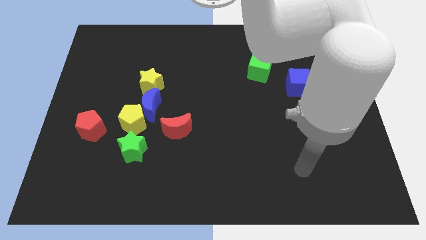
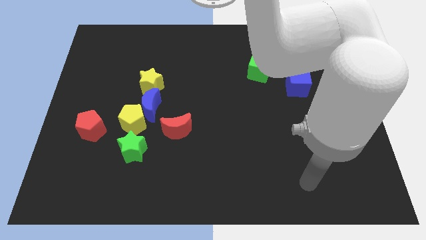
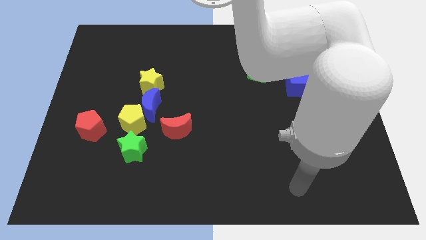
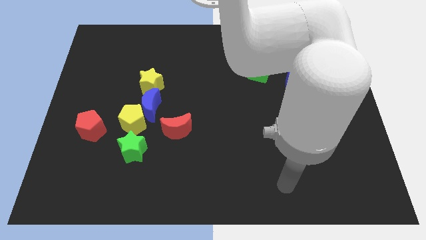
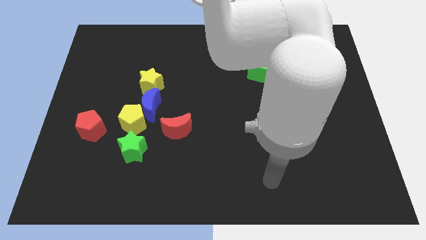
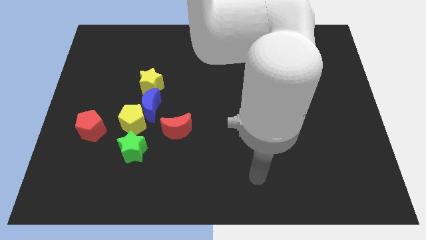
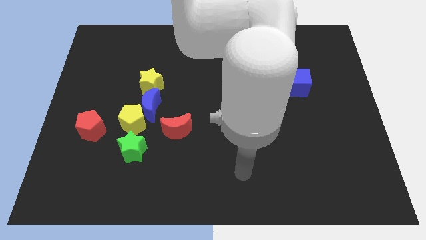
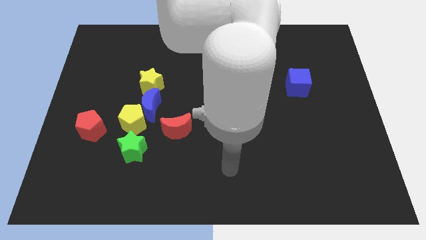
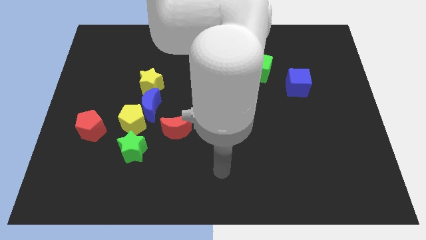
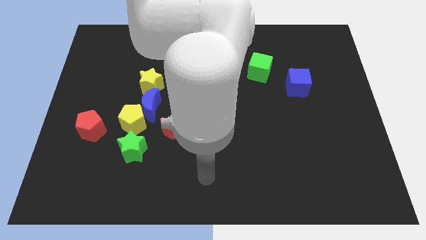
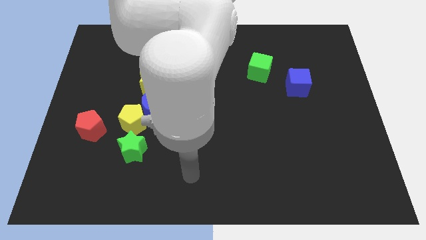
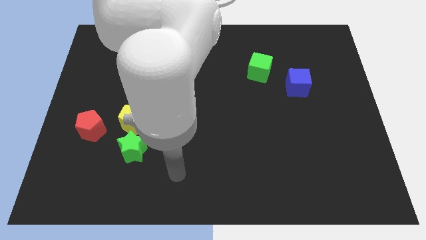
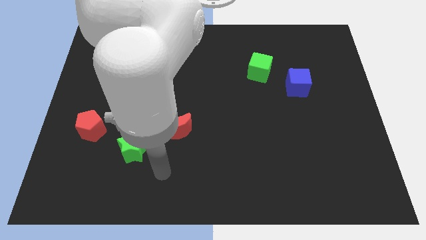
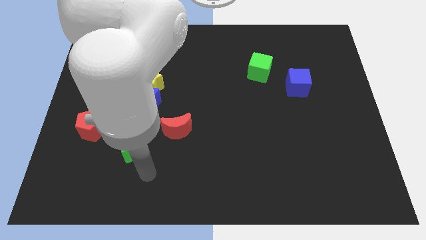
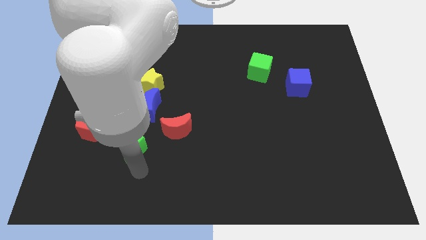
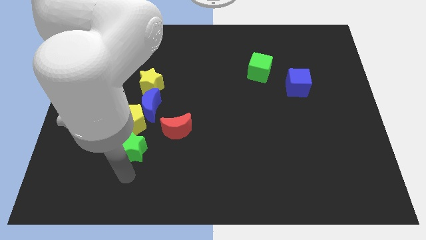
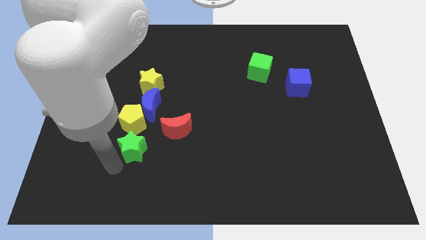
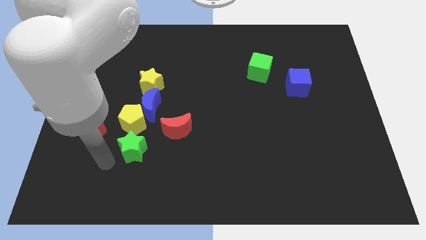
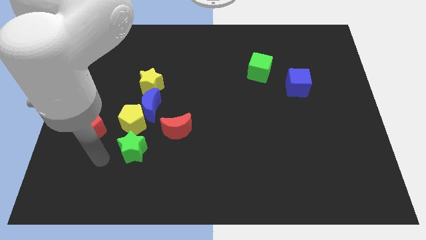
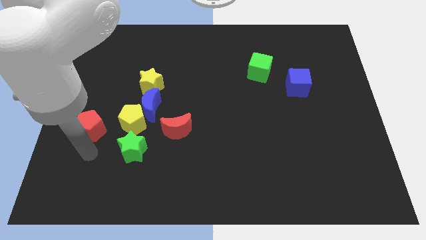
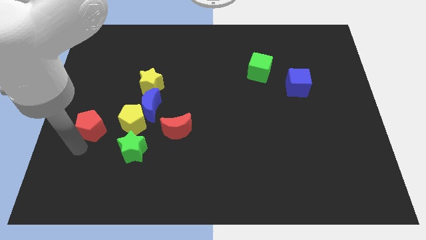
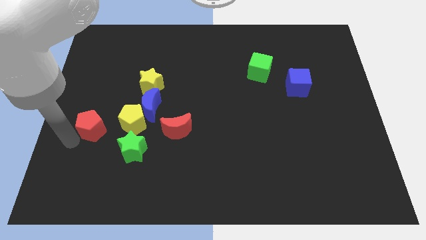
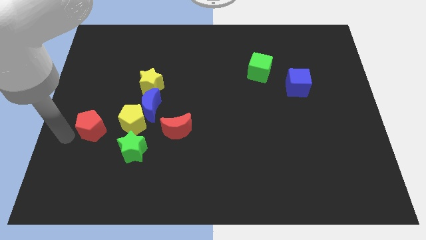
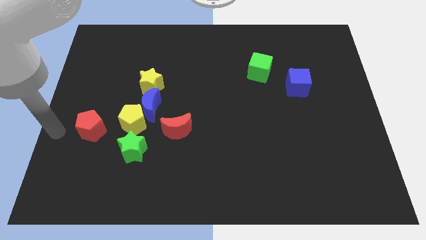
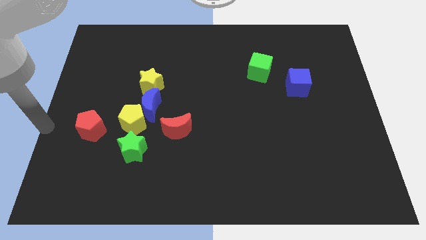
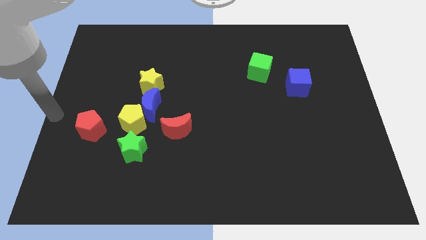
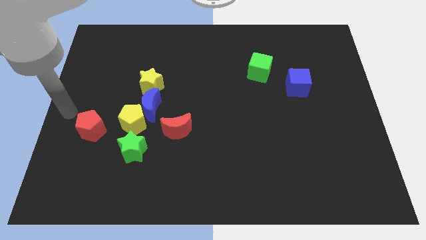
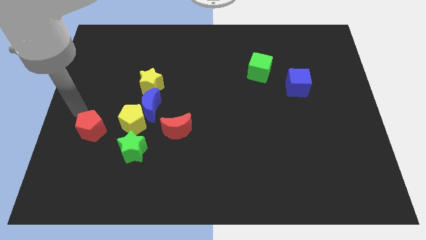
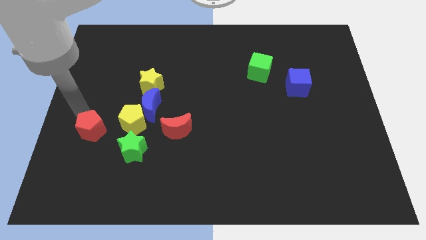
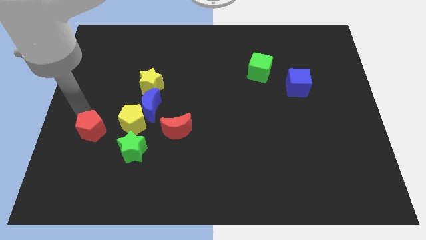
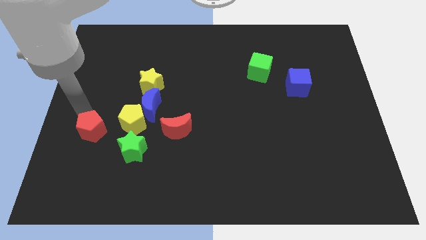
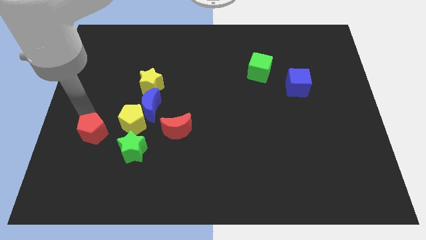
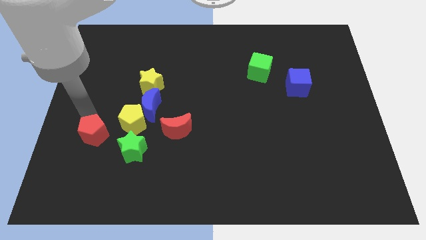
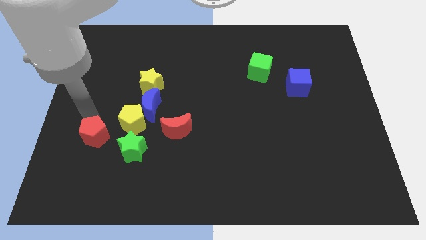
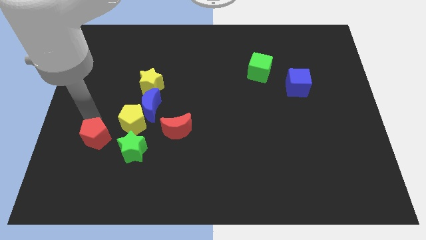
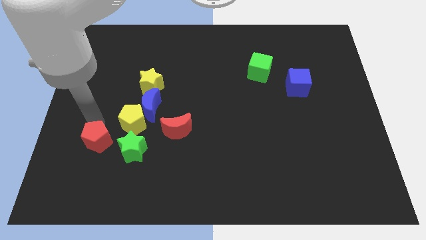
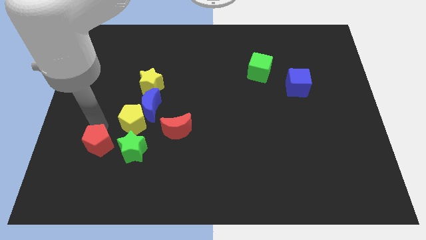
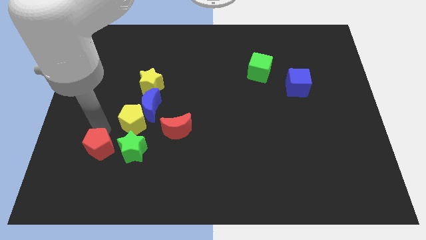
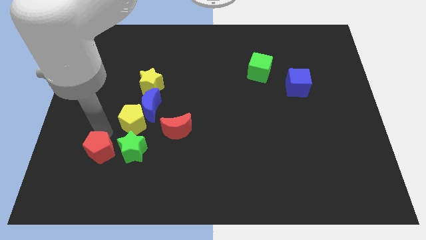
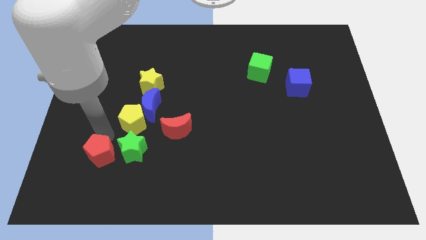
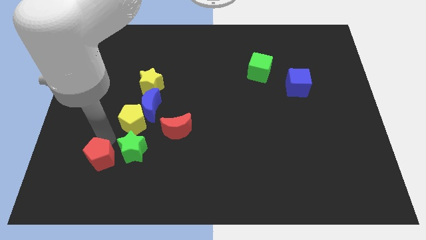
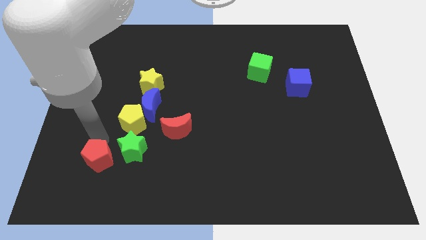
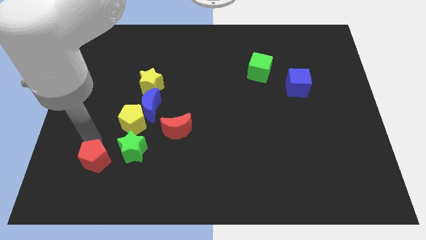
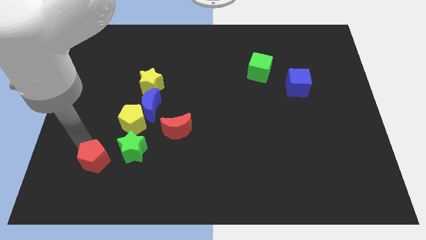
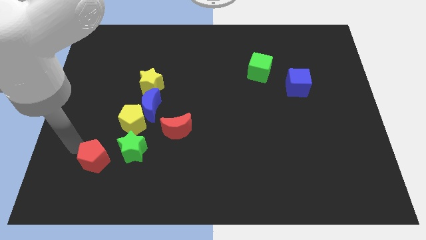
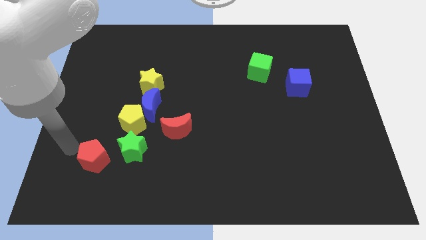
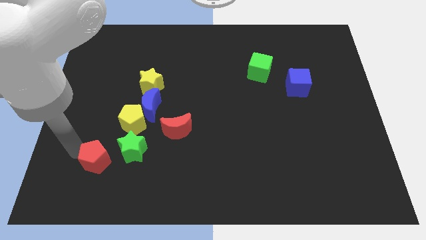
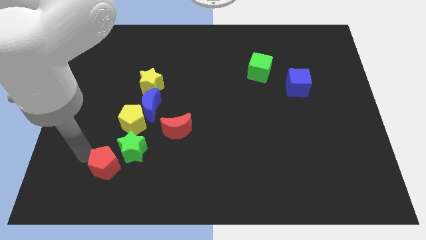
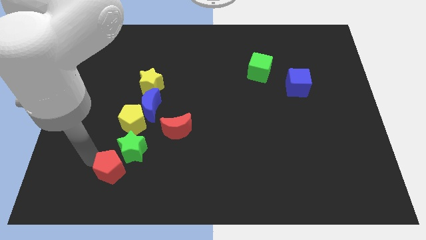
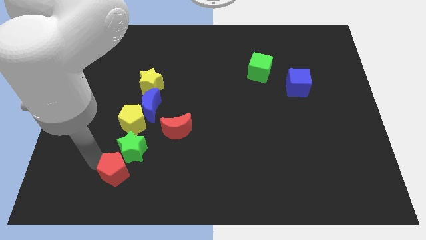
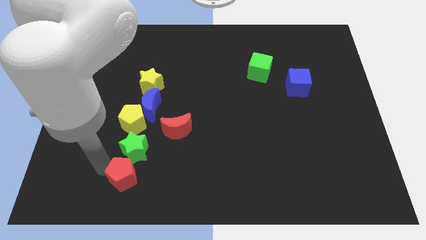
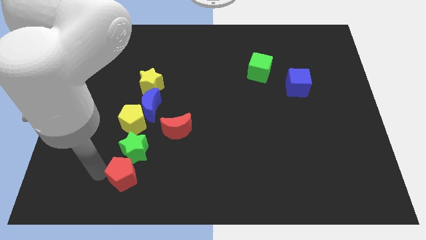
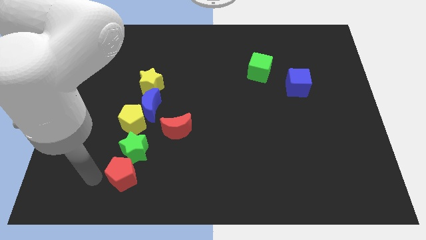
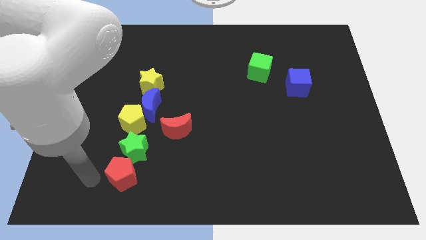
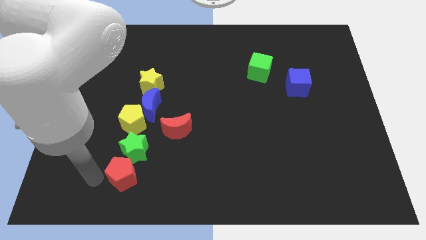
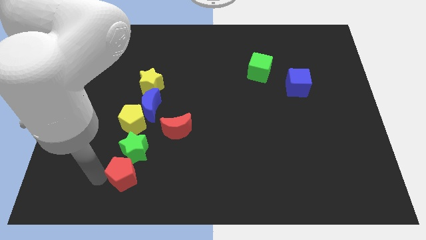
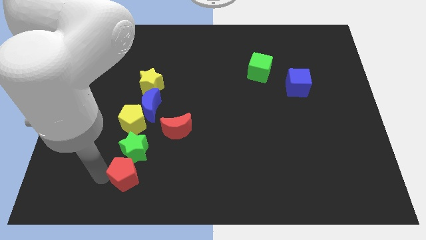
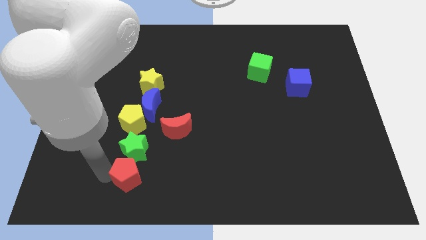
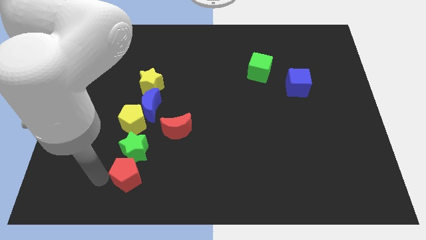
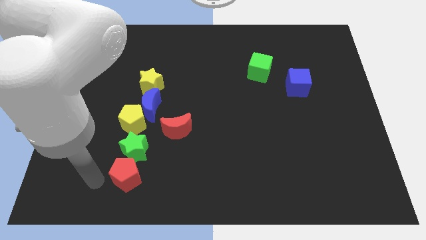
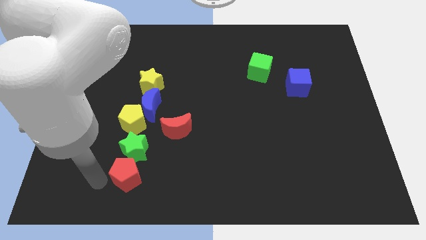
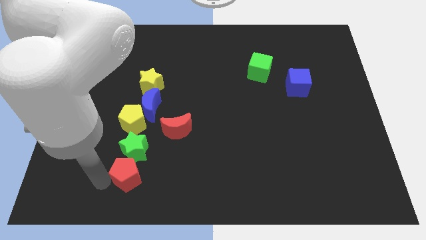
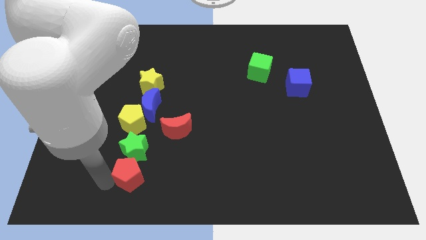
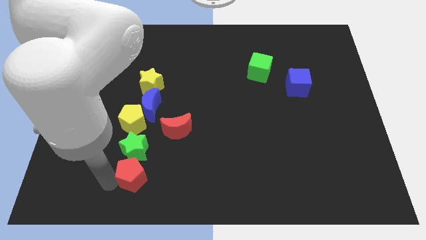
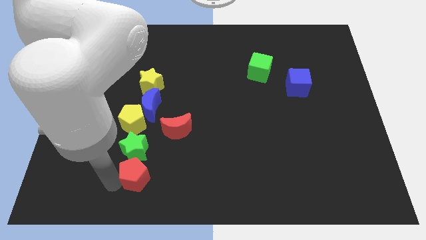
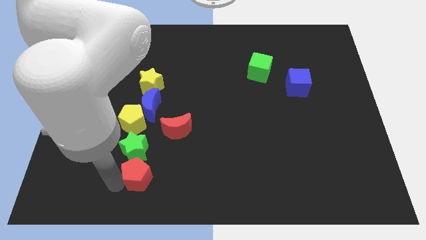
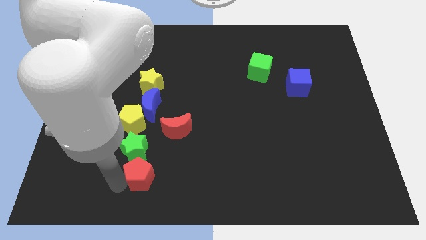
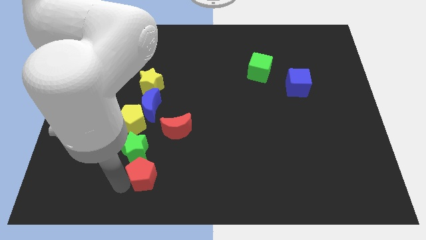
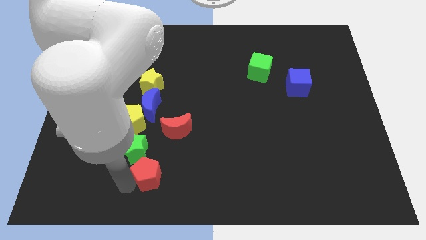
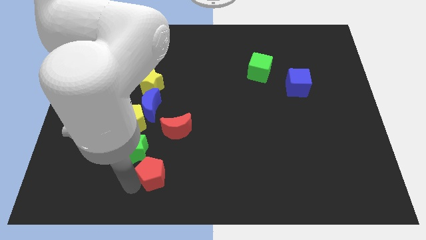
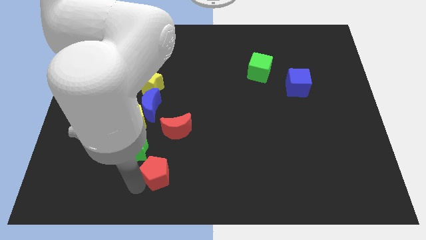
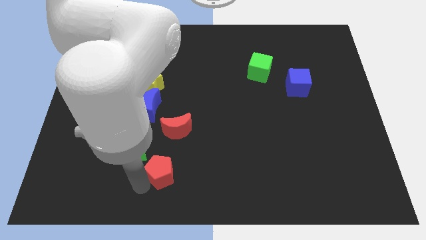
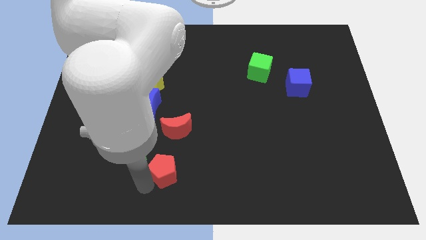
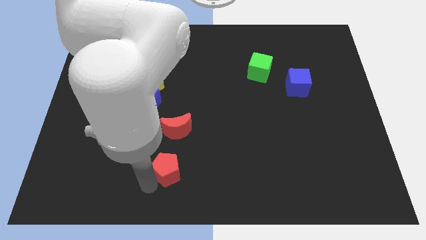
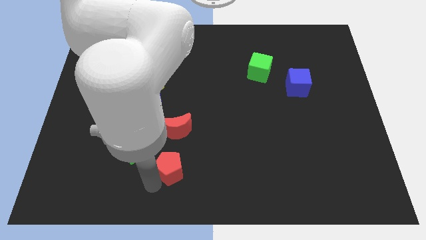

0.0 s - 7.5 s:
slide the red pentagon to the right of the green star
